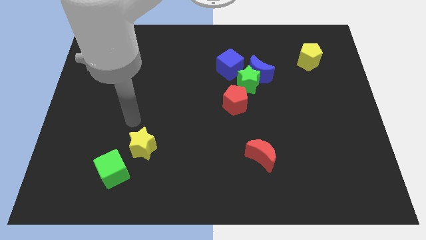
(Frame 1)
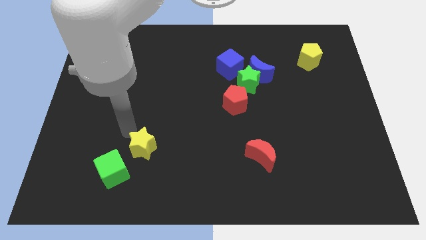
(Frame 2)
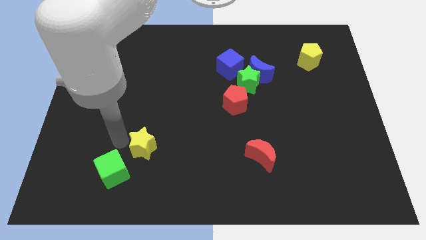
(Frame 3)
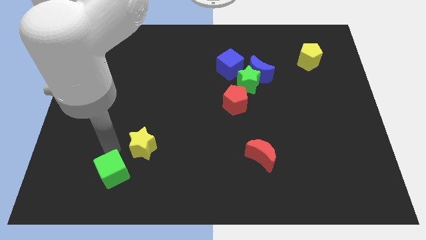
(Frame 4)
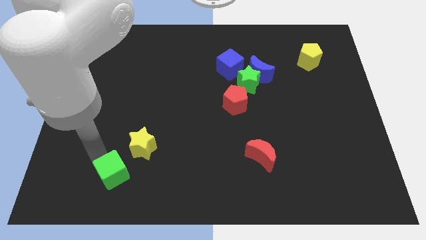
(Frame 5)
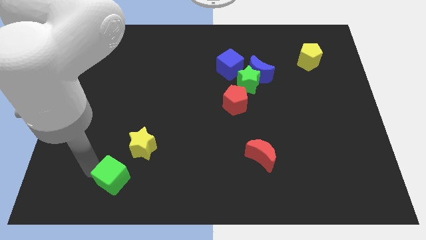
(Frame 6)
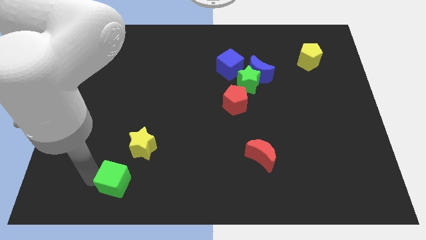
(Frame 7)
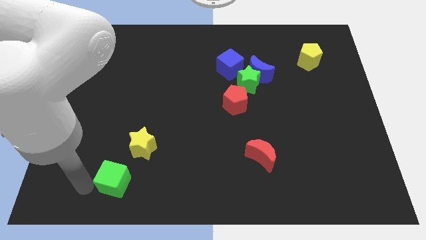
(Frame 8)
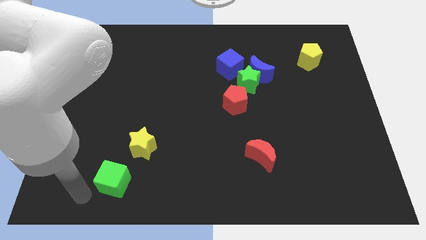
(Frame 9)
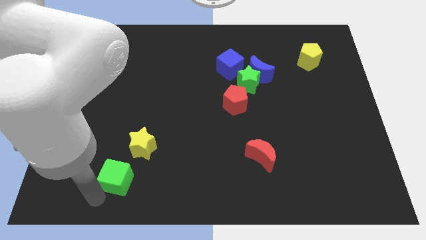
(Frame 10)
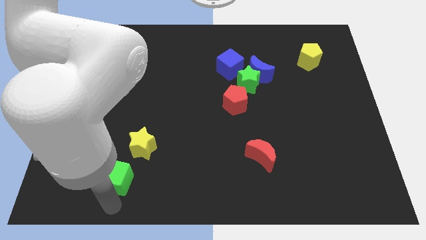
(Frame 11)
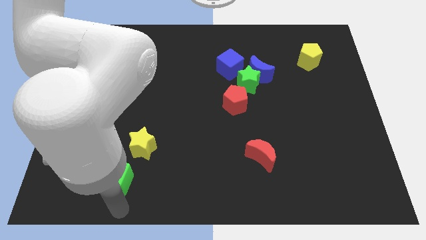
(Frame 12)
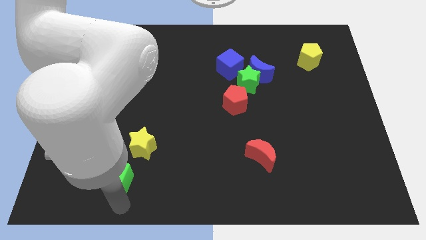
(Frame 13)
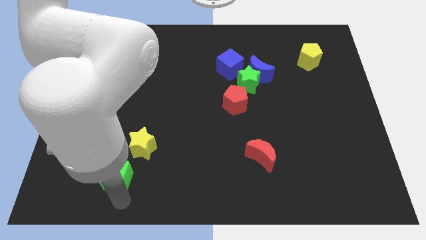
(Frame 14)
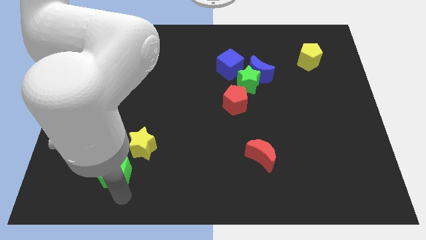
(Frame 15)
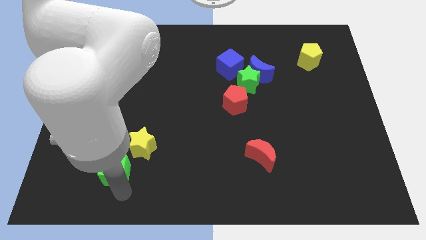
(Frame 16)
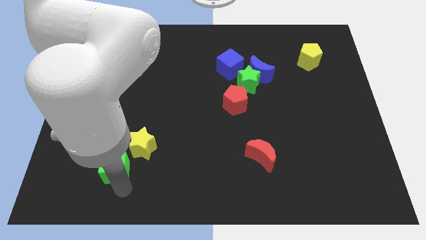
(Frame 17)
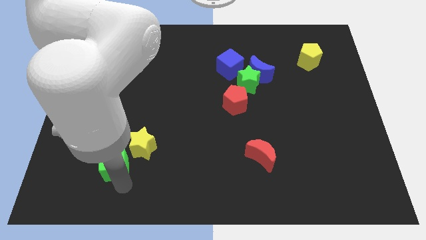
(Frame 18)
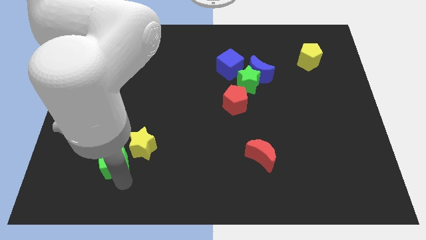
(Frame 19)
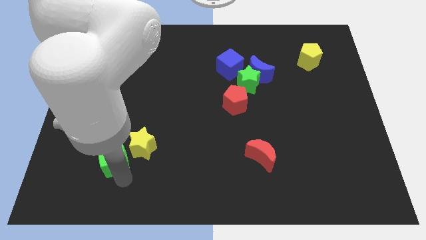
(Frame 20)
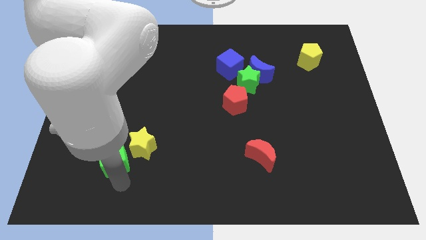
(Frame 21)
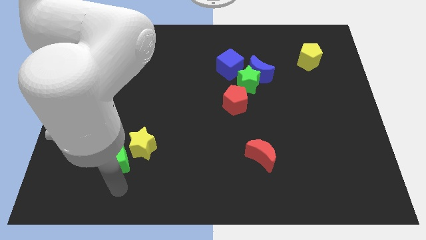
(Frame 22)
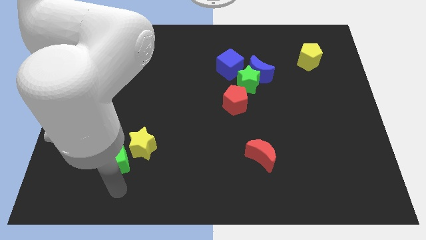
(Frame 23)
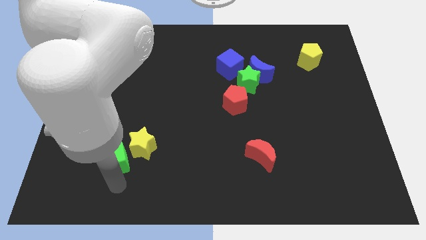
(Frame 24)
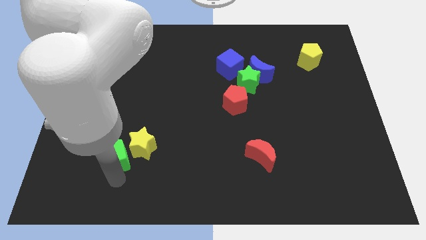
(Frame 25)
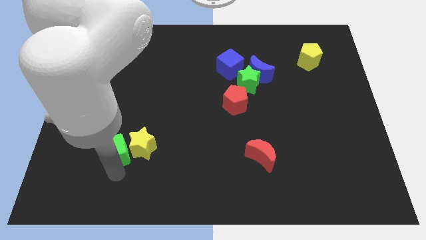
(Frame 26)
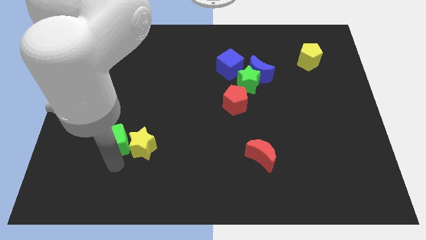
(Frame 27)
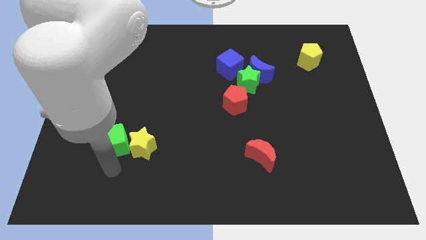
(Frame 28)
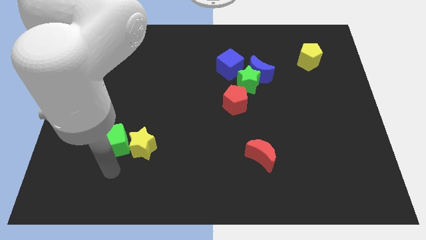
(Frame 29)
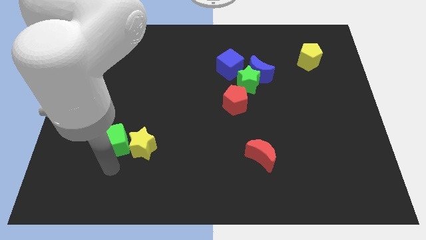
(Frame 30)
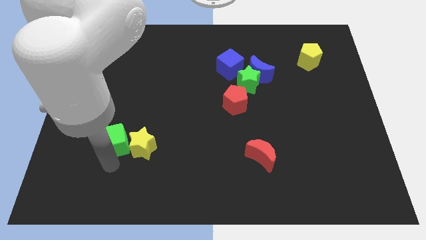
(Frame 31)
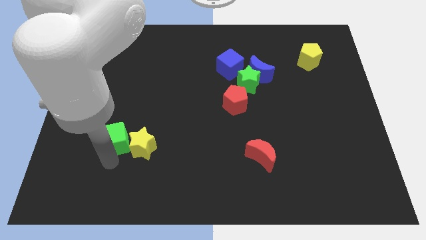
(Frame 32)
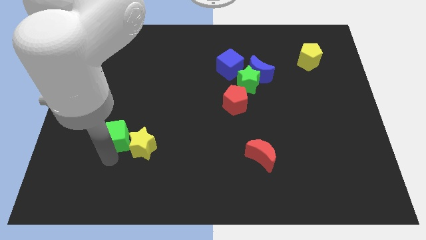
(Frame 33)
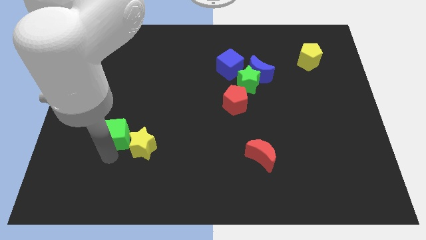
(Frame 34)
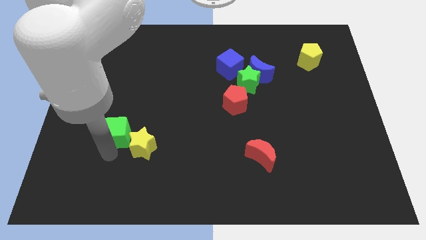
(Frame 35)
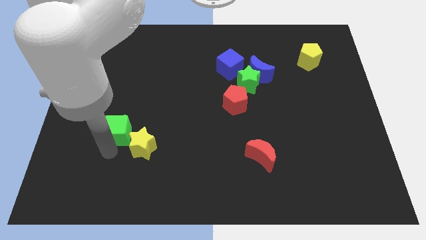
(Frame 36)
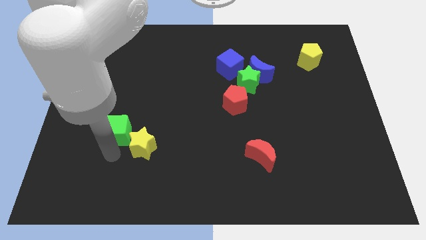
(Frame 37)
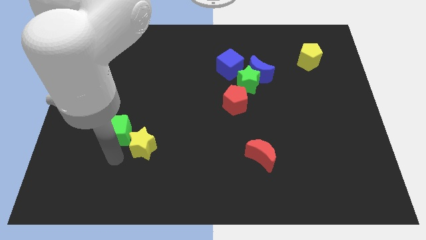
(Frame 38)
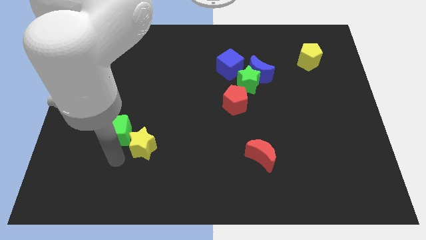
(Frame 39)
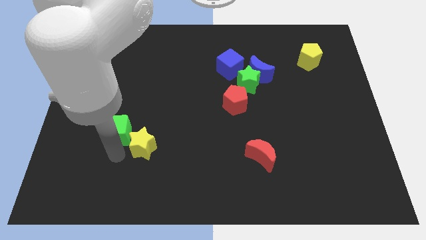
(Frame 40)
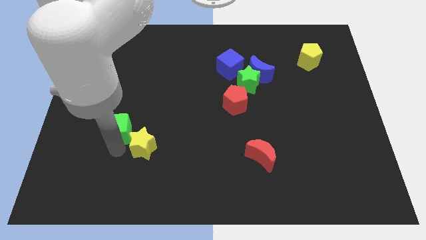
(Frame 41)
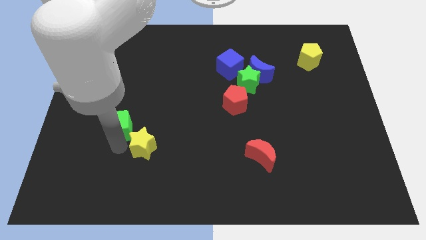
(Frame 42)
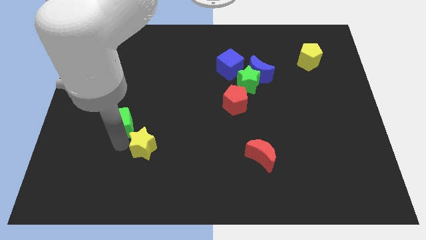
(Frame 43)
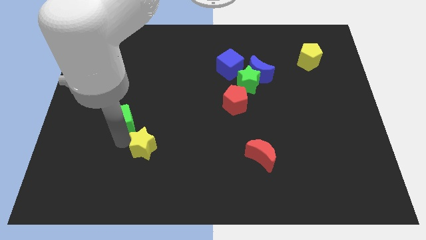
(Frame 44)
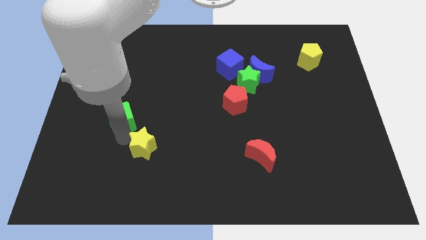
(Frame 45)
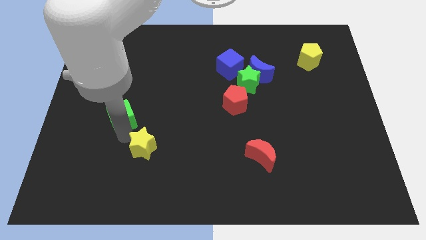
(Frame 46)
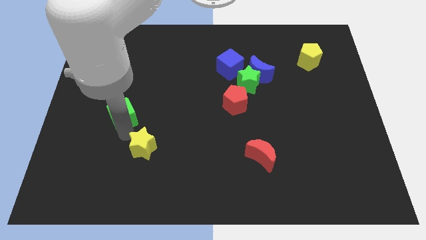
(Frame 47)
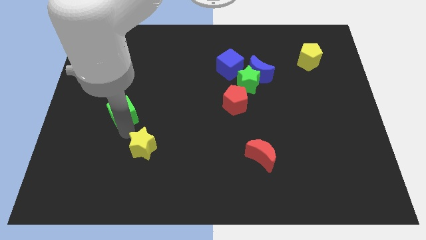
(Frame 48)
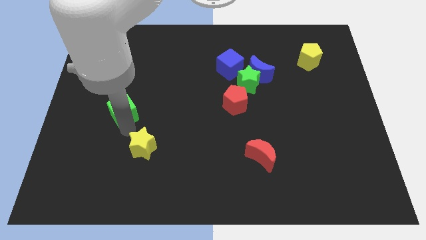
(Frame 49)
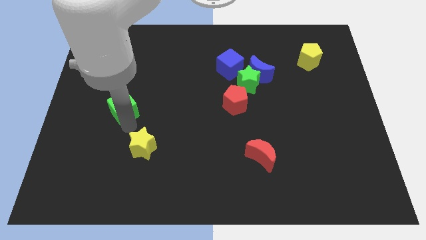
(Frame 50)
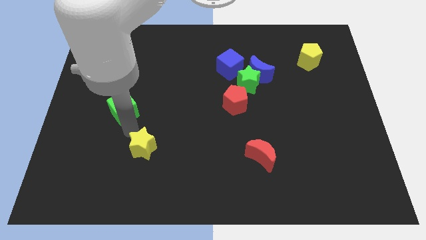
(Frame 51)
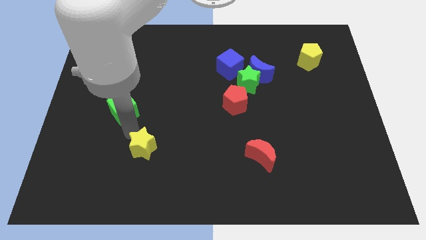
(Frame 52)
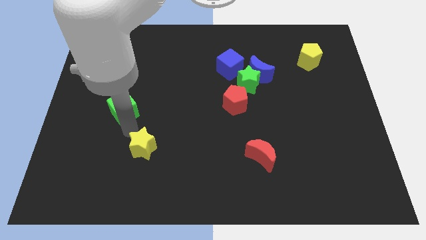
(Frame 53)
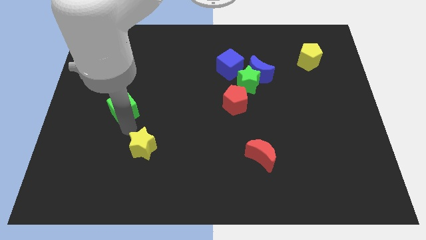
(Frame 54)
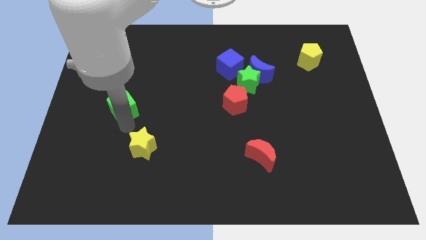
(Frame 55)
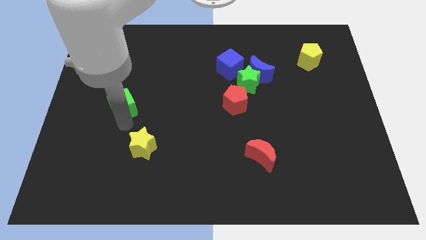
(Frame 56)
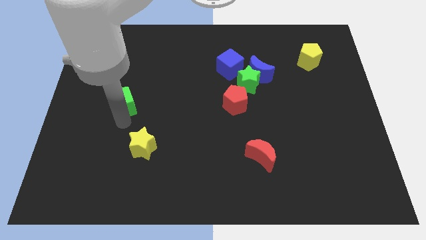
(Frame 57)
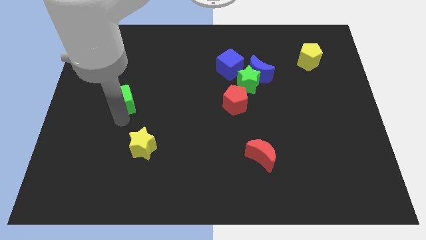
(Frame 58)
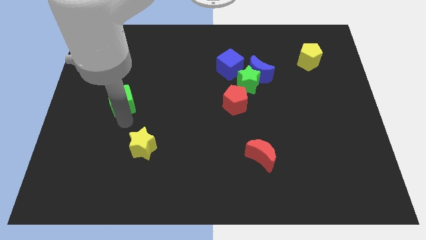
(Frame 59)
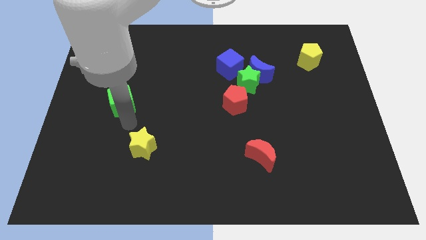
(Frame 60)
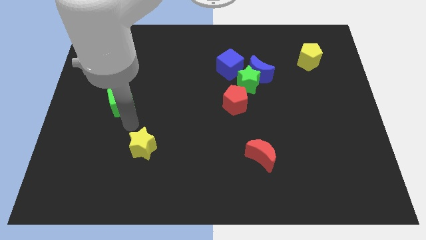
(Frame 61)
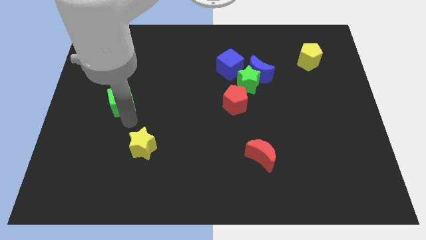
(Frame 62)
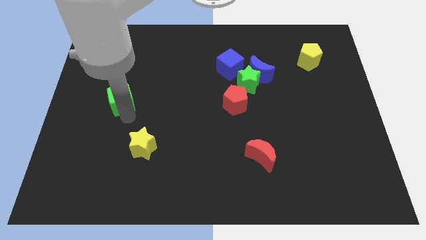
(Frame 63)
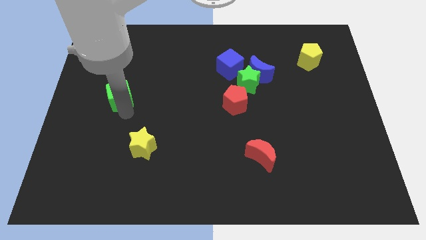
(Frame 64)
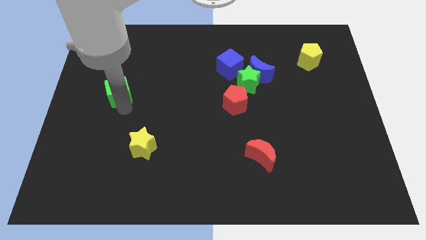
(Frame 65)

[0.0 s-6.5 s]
move the green cube up

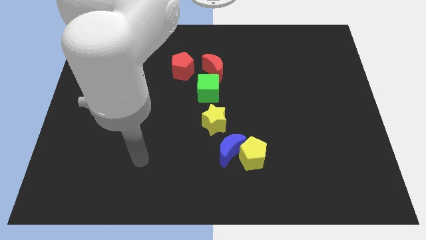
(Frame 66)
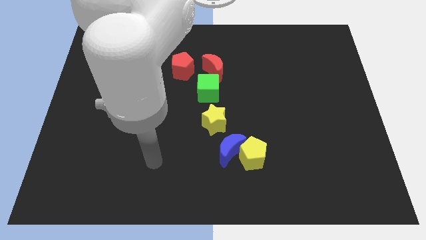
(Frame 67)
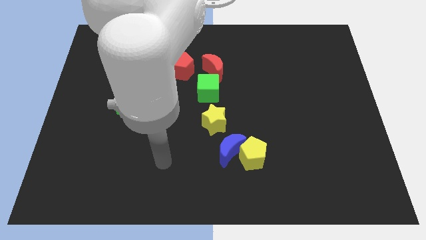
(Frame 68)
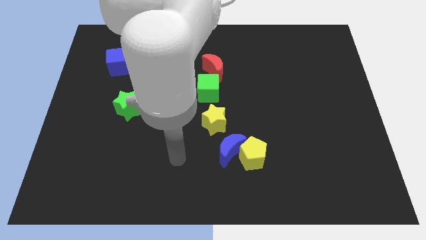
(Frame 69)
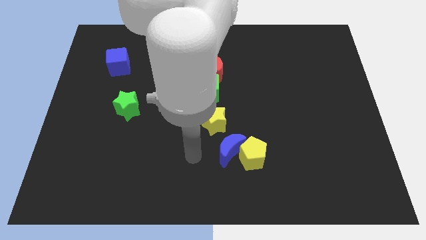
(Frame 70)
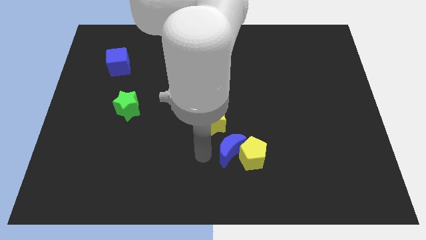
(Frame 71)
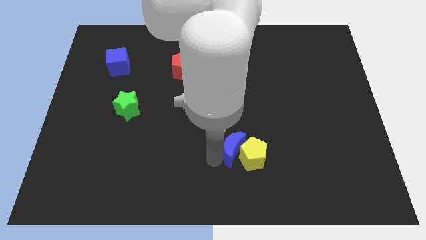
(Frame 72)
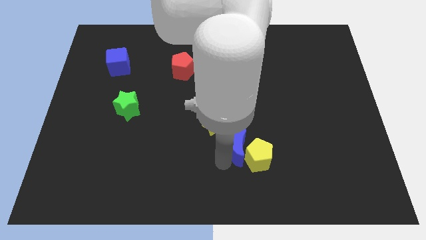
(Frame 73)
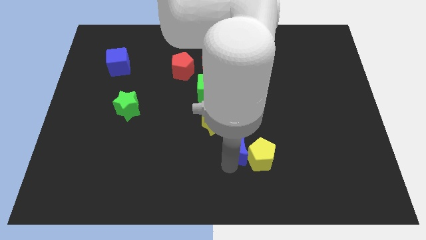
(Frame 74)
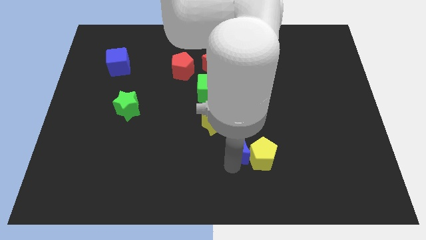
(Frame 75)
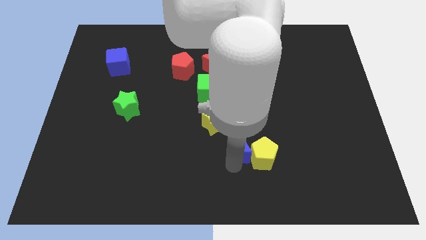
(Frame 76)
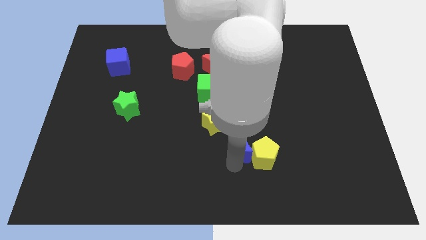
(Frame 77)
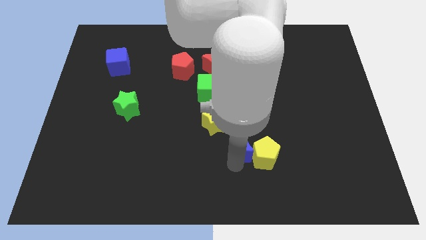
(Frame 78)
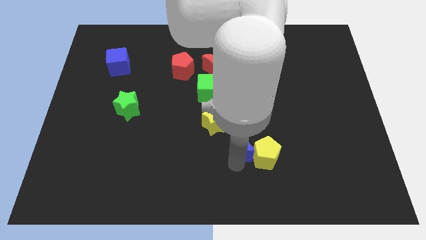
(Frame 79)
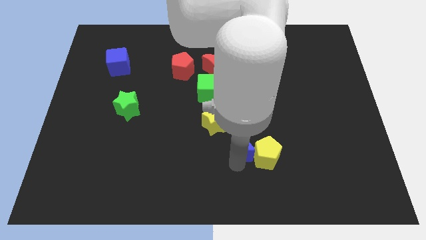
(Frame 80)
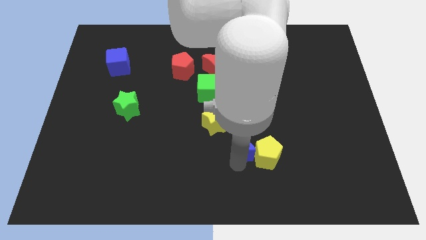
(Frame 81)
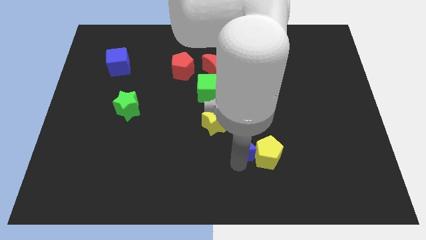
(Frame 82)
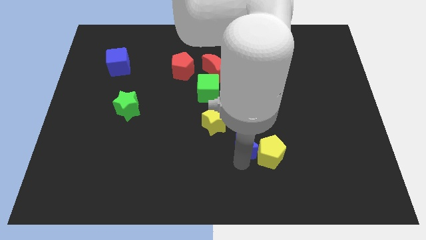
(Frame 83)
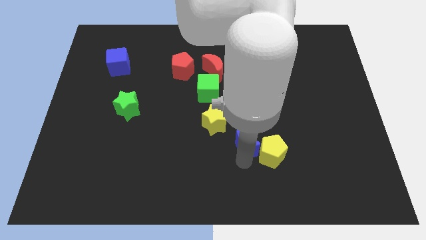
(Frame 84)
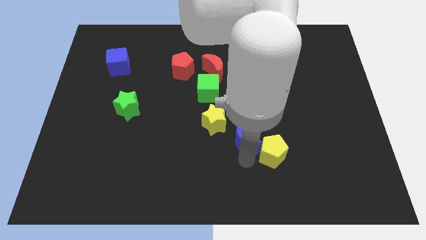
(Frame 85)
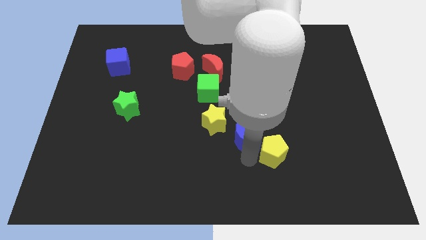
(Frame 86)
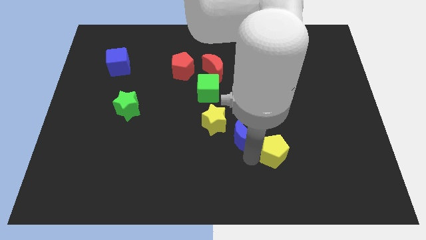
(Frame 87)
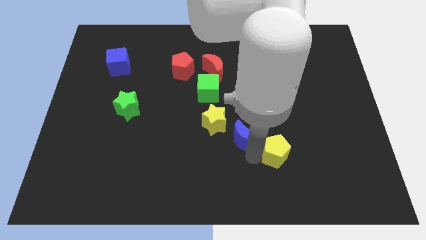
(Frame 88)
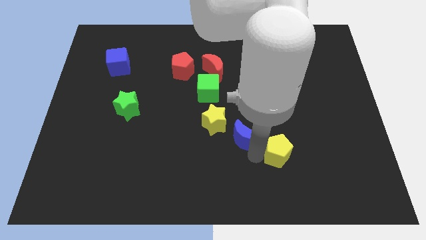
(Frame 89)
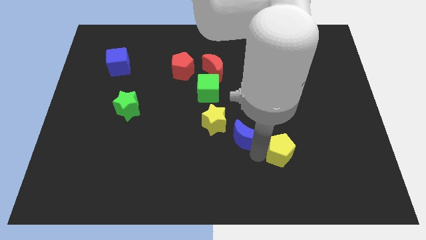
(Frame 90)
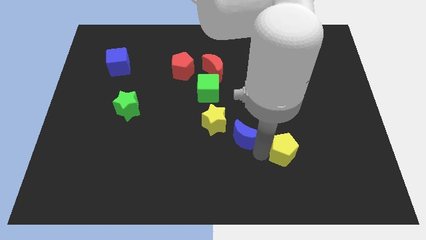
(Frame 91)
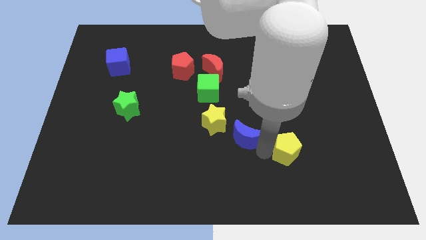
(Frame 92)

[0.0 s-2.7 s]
slightly slide the yellow pentagon right
